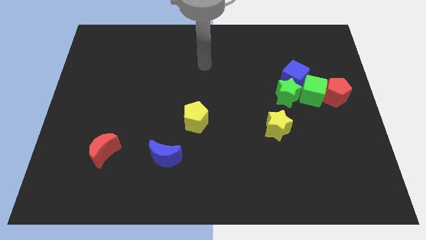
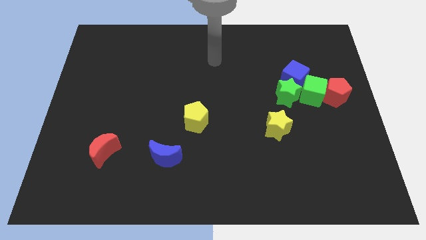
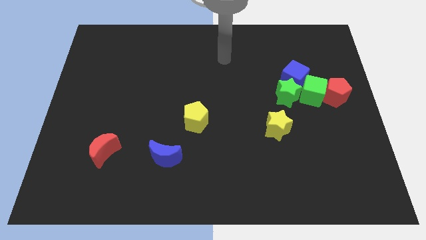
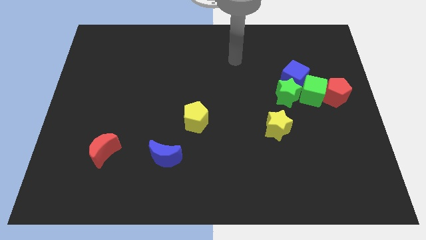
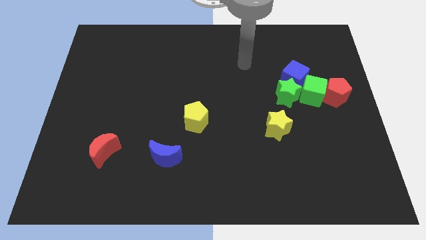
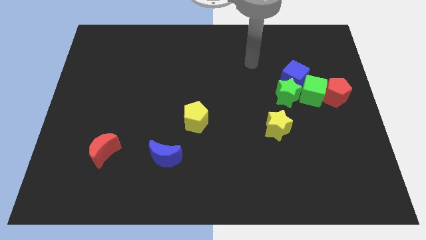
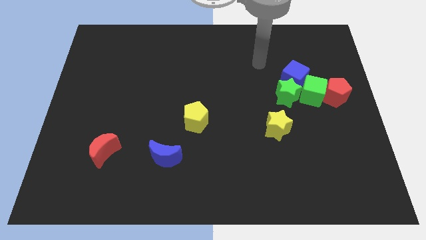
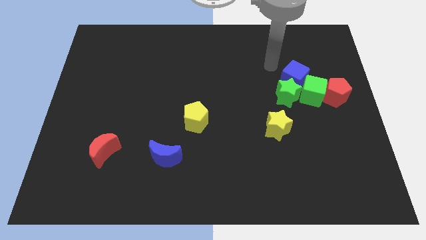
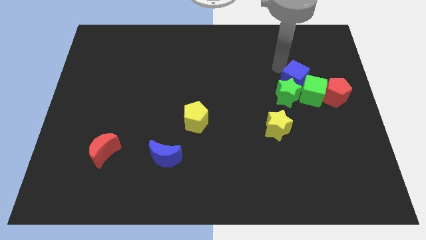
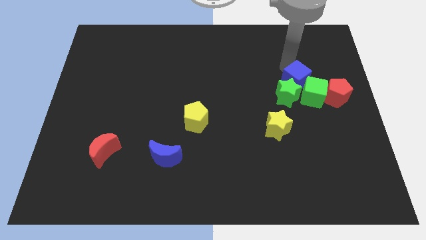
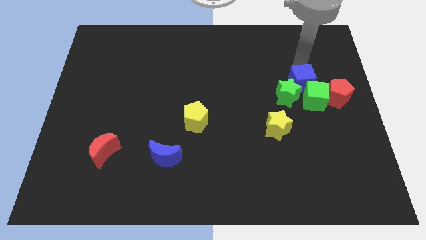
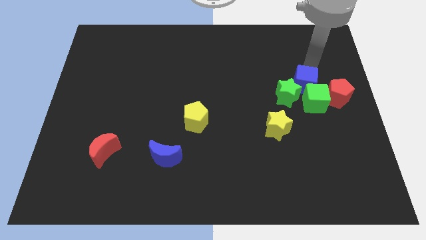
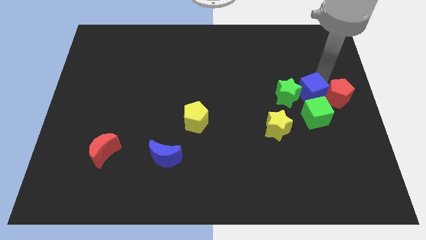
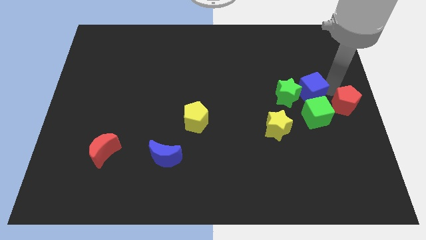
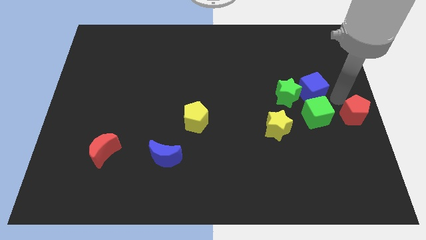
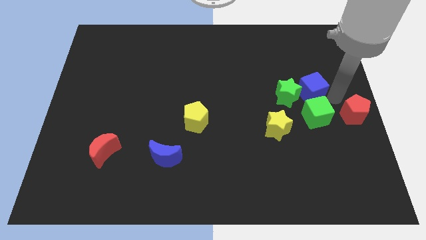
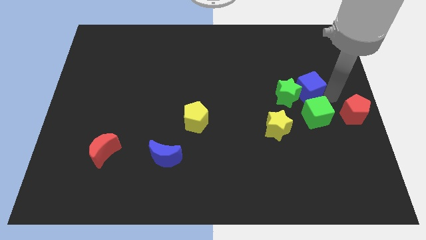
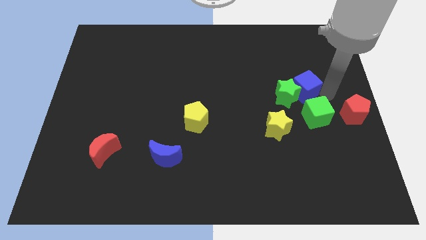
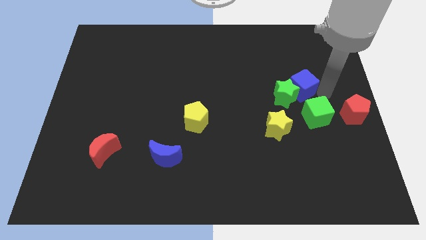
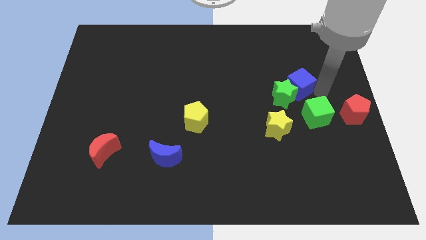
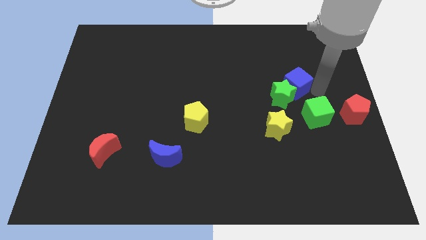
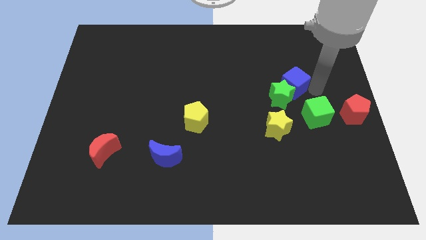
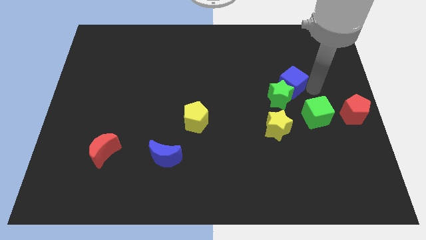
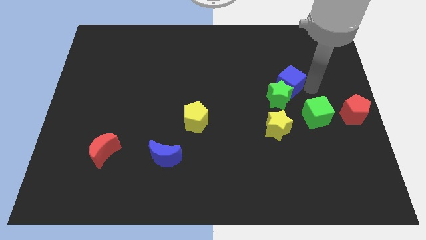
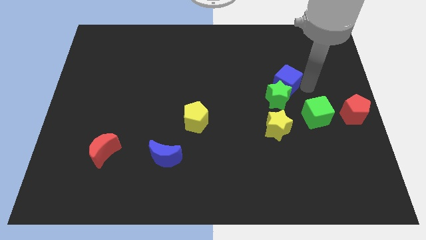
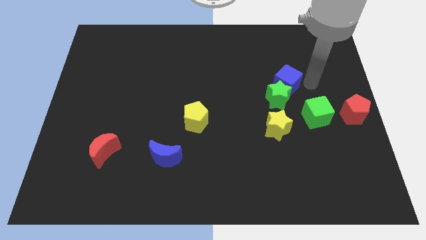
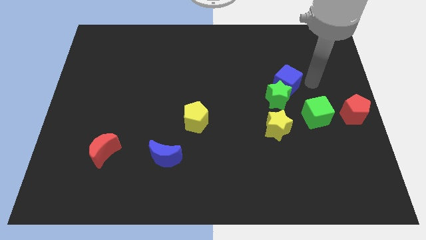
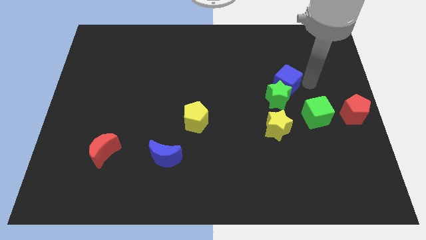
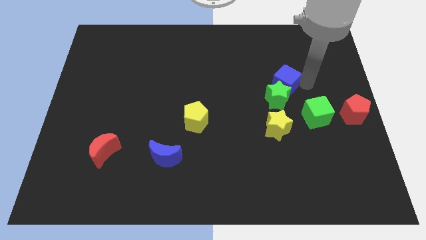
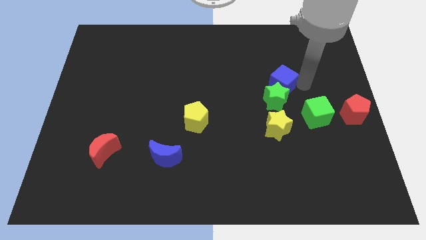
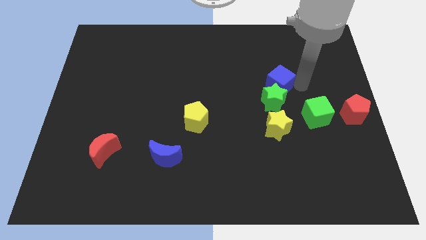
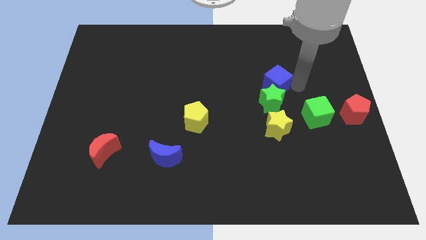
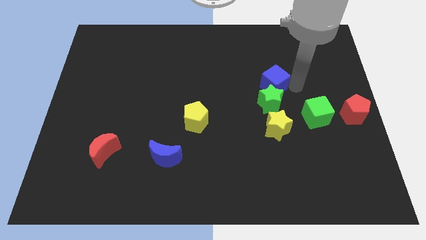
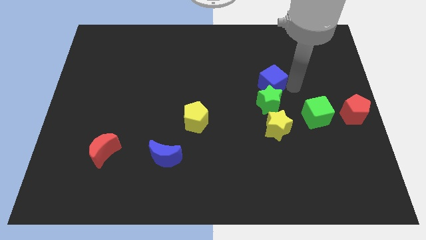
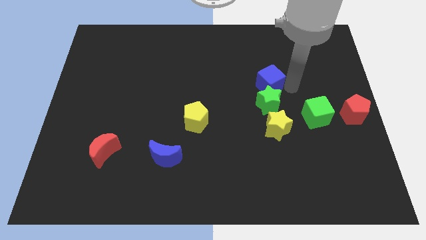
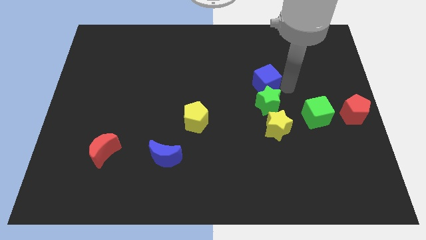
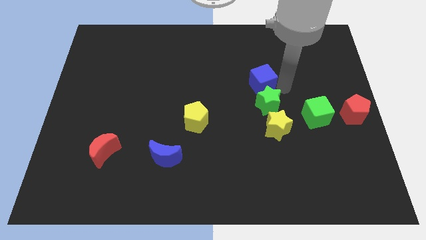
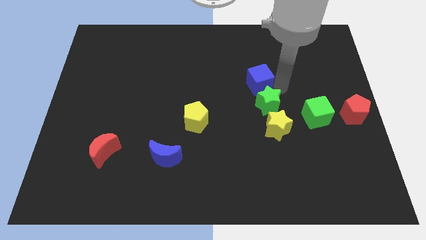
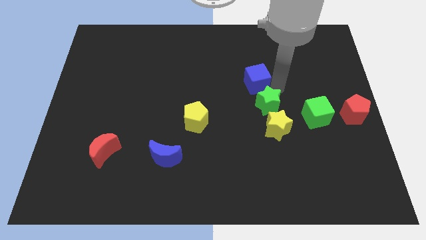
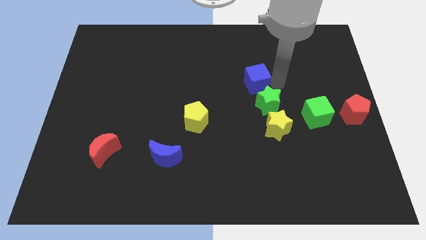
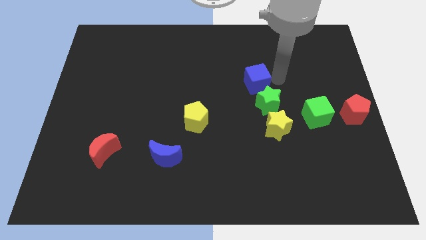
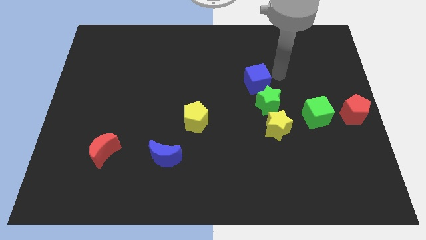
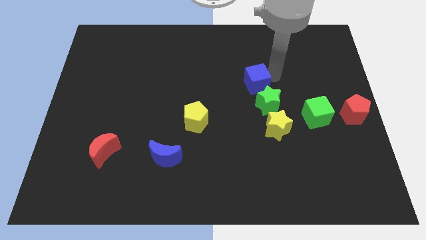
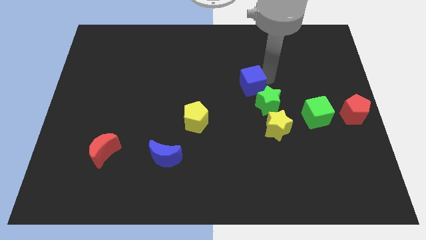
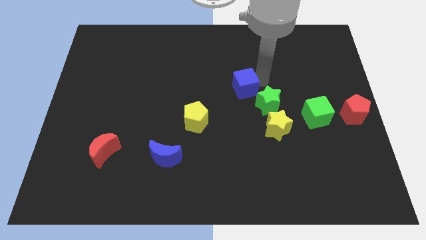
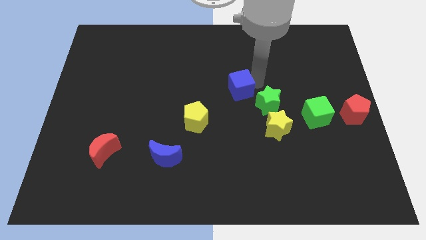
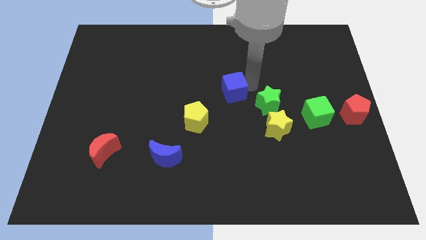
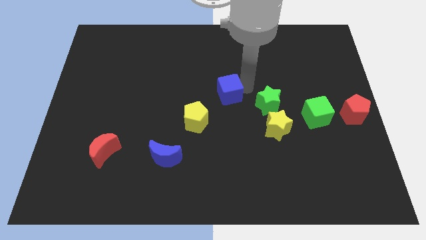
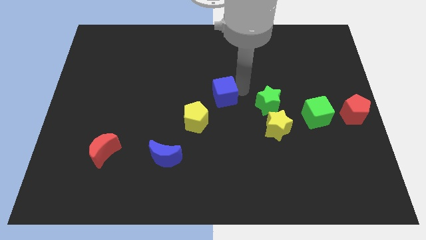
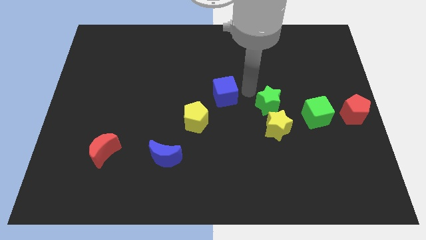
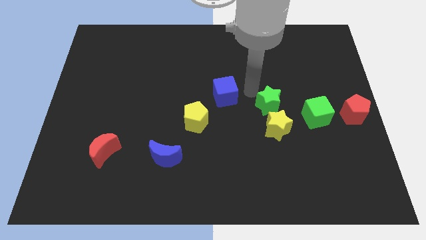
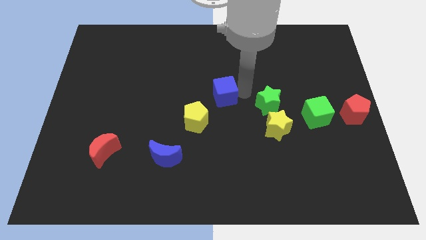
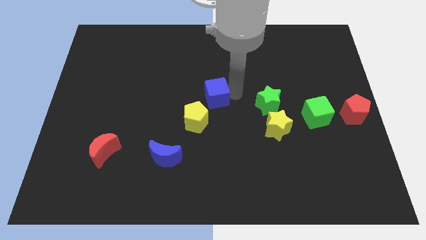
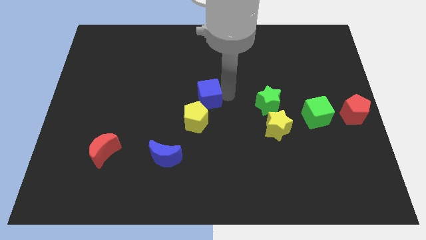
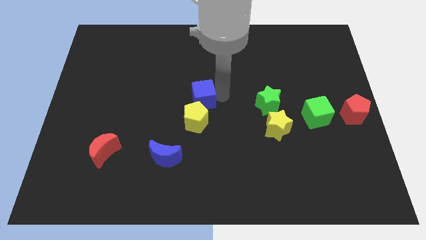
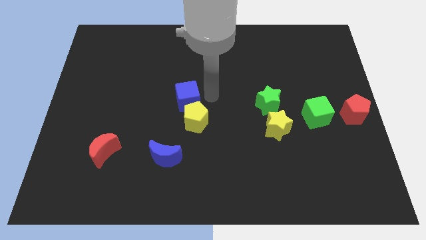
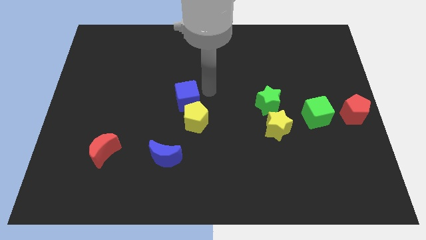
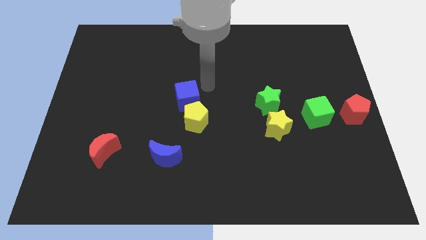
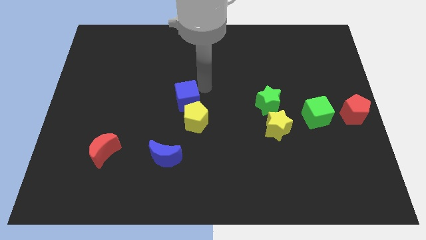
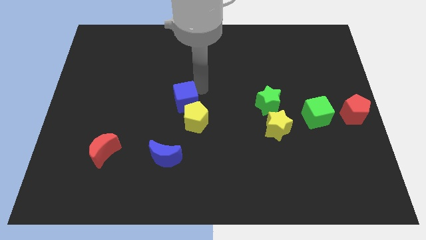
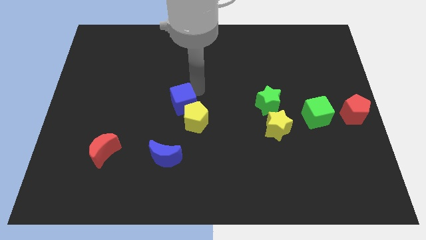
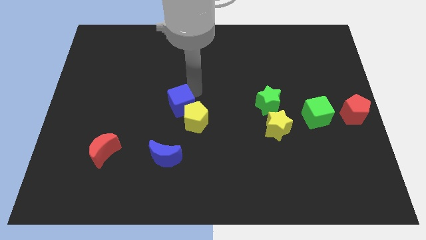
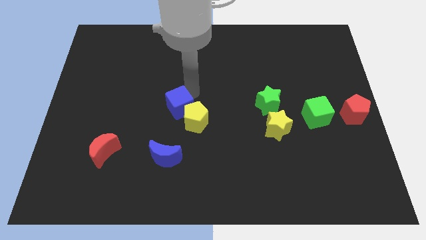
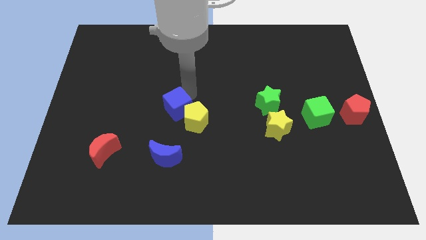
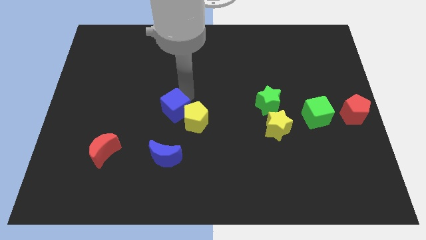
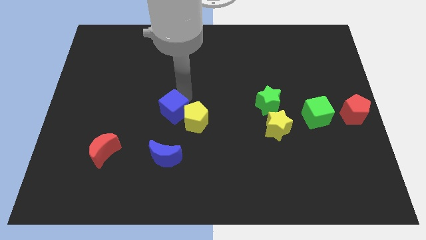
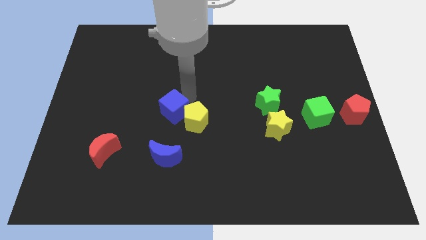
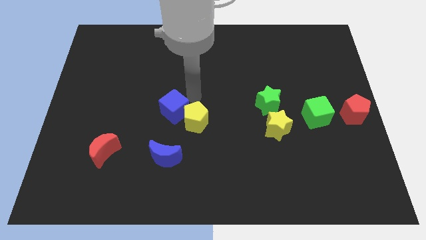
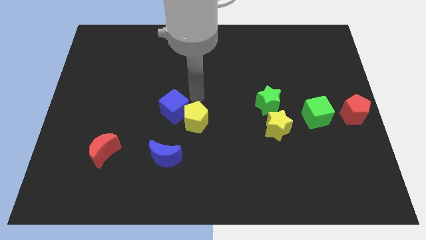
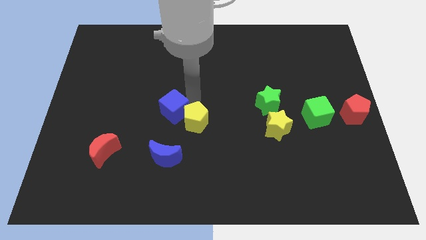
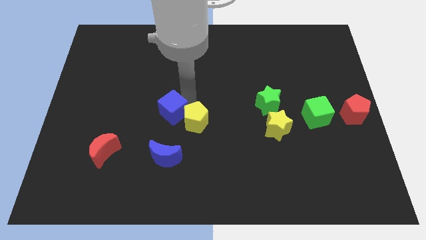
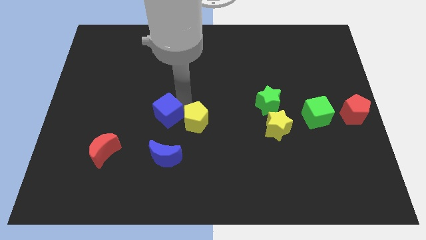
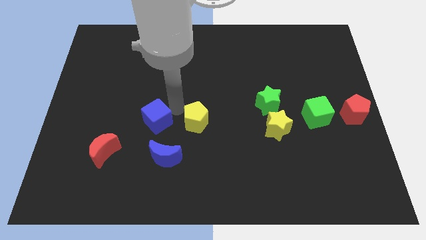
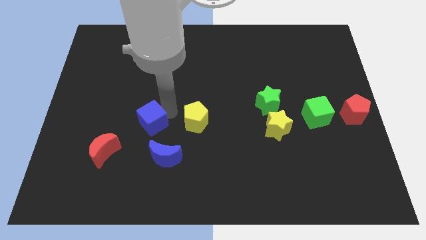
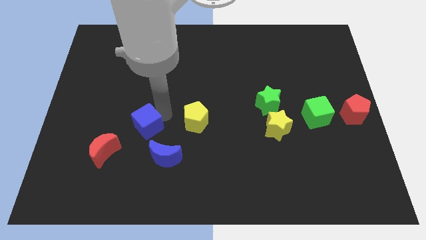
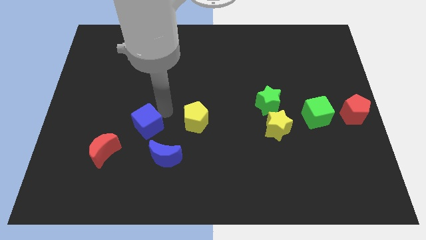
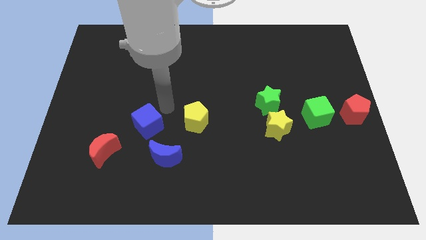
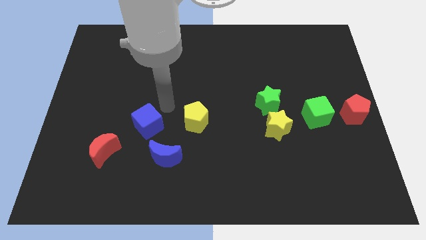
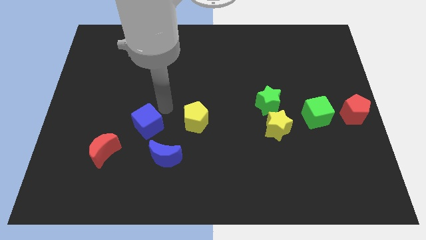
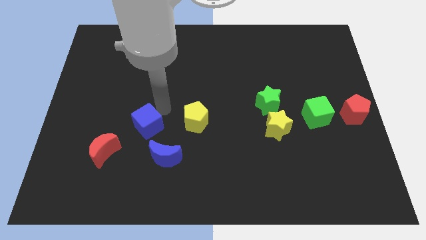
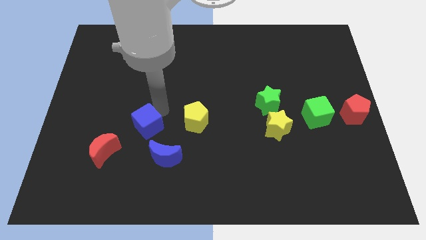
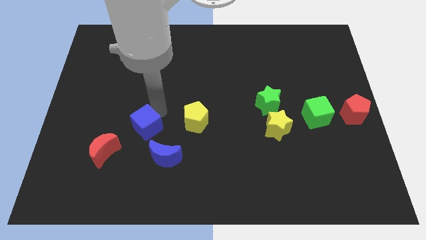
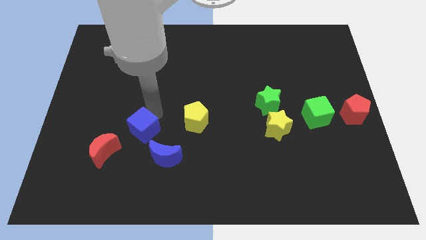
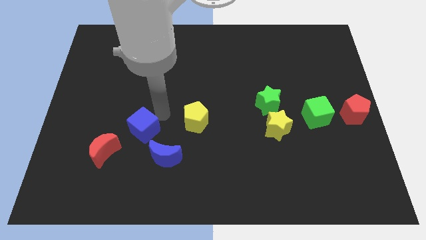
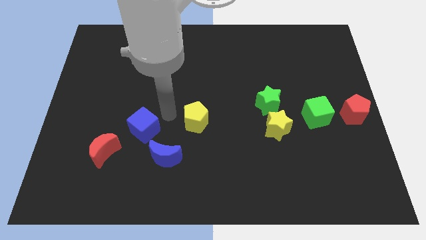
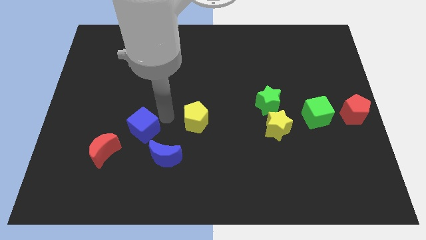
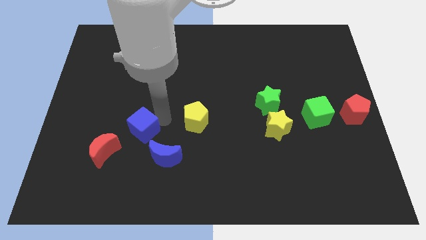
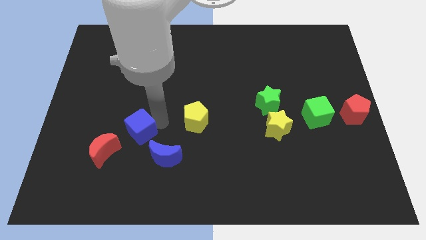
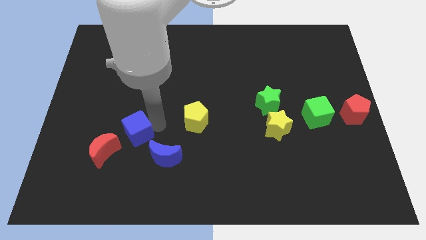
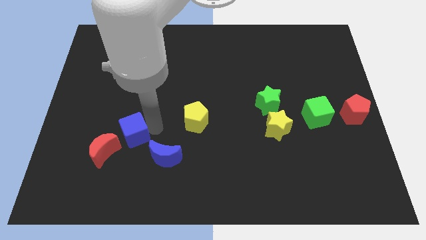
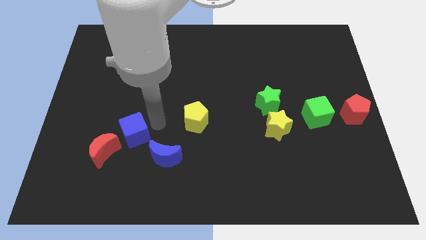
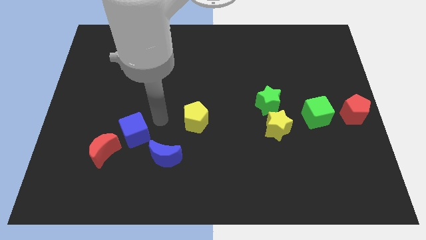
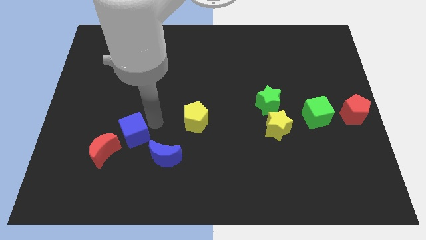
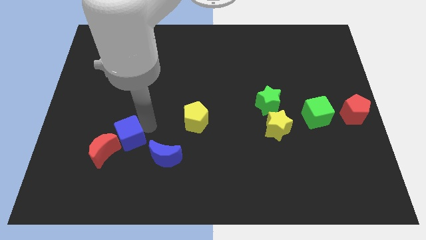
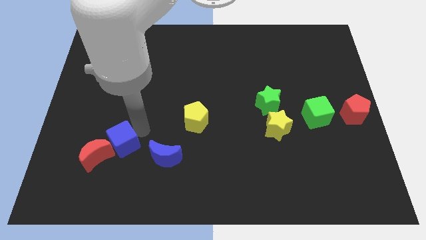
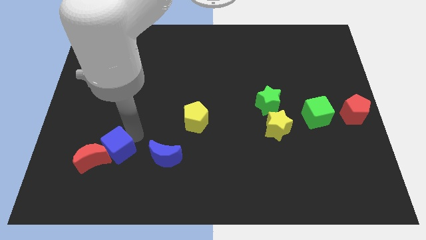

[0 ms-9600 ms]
move the blue cube to the red moon
